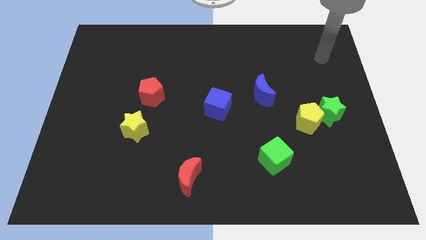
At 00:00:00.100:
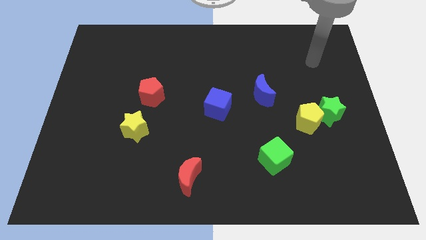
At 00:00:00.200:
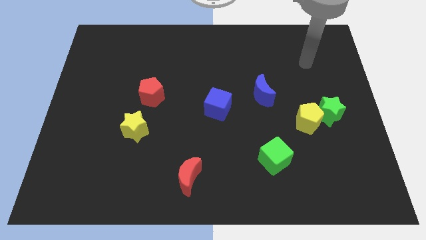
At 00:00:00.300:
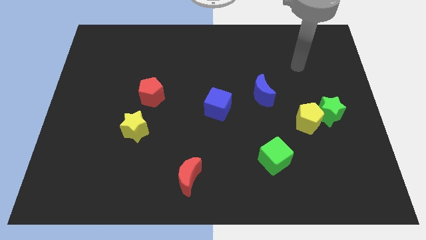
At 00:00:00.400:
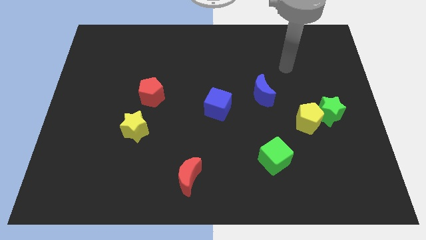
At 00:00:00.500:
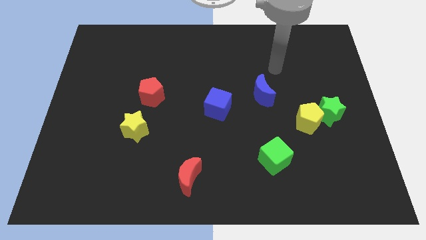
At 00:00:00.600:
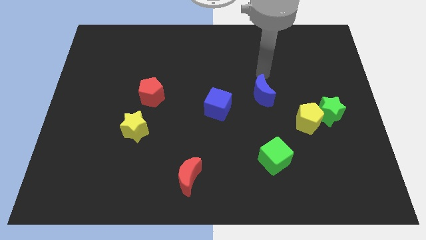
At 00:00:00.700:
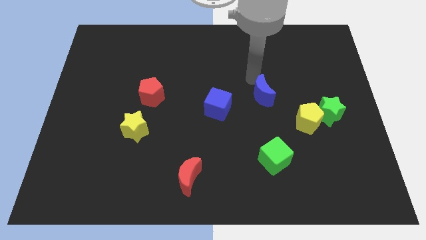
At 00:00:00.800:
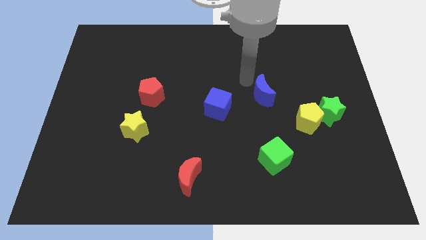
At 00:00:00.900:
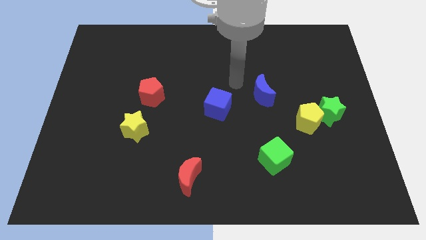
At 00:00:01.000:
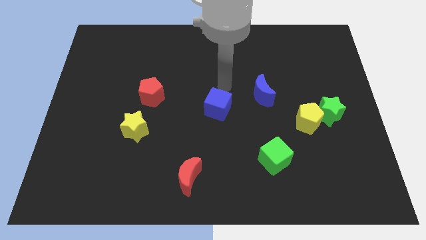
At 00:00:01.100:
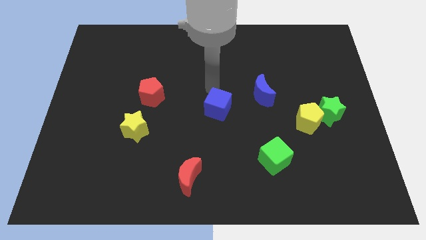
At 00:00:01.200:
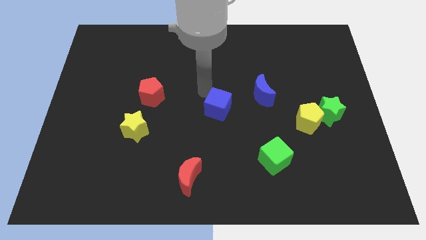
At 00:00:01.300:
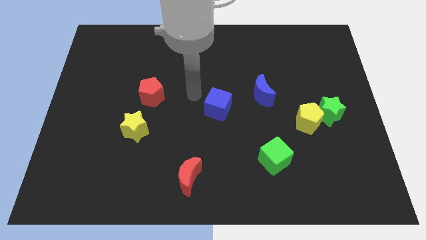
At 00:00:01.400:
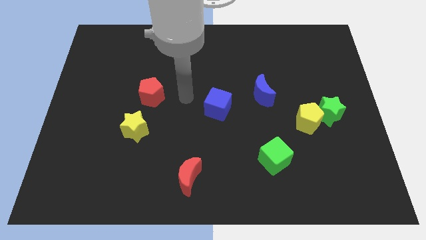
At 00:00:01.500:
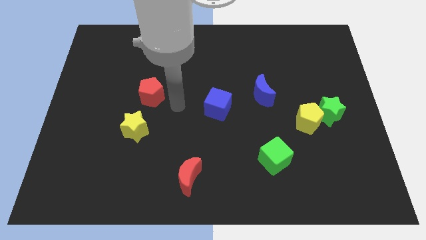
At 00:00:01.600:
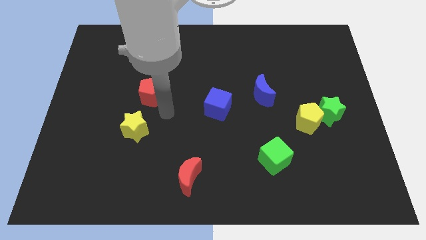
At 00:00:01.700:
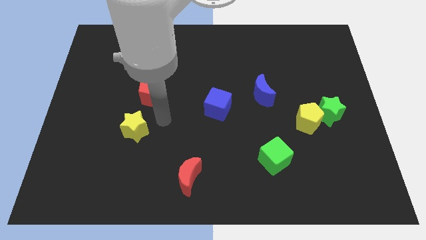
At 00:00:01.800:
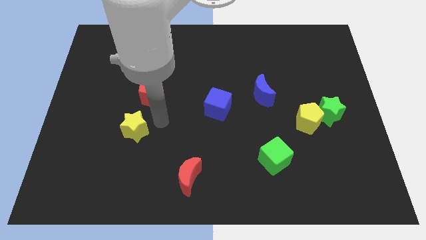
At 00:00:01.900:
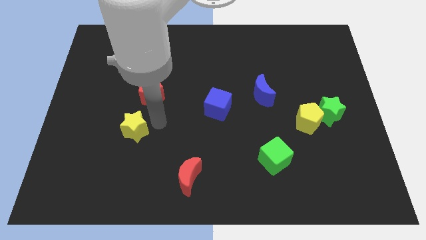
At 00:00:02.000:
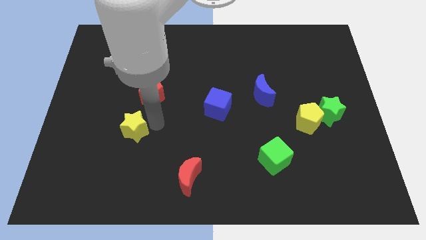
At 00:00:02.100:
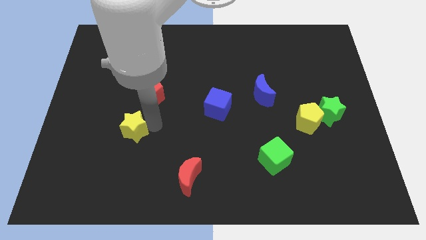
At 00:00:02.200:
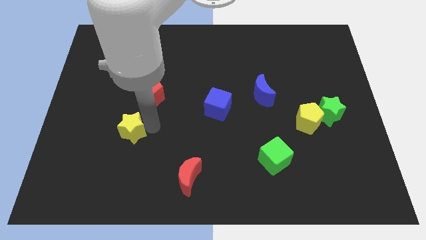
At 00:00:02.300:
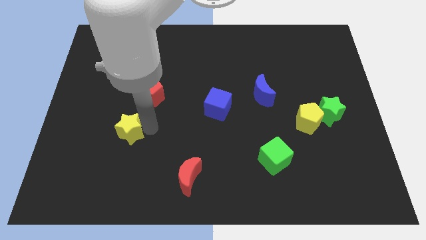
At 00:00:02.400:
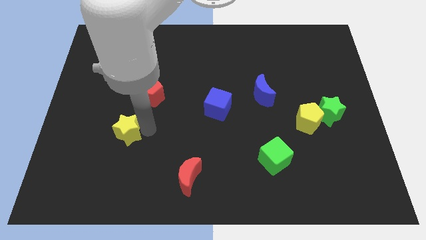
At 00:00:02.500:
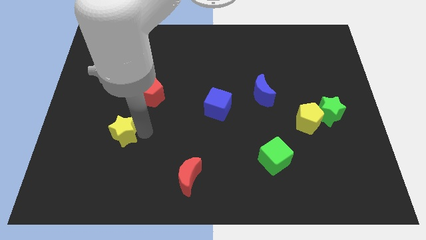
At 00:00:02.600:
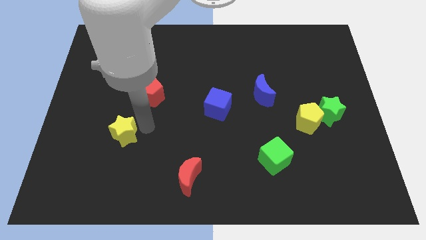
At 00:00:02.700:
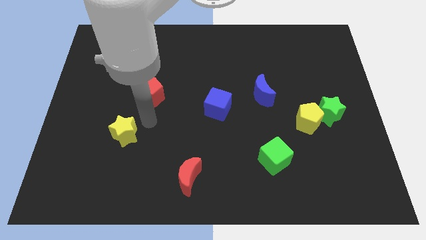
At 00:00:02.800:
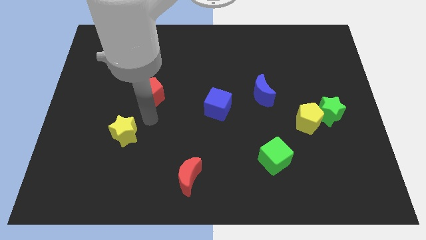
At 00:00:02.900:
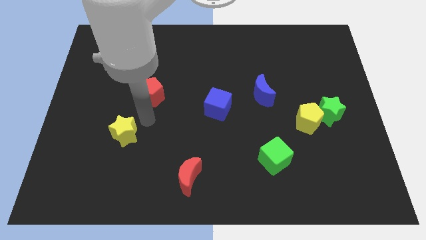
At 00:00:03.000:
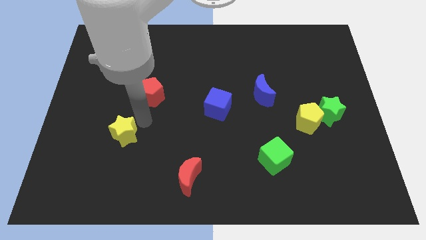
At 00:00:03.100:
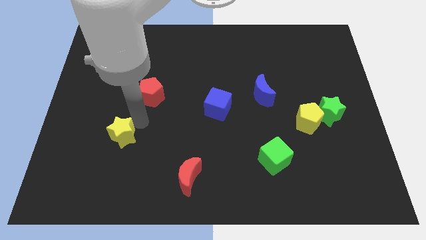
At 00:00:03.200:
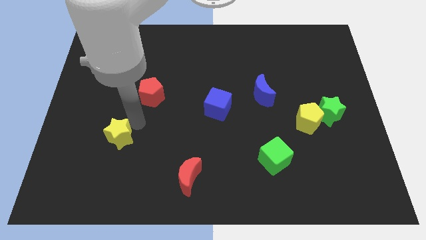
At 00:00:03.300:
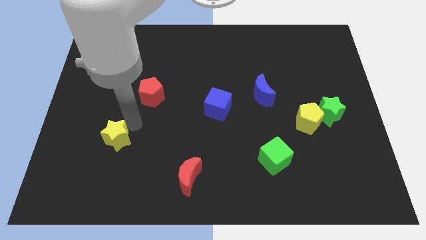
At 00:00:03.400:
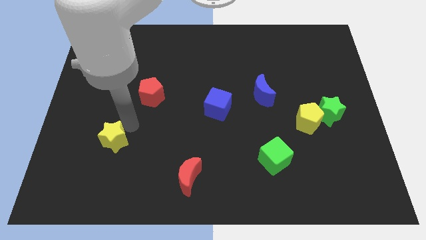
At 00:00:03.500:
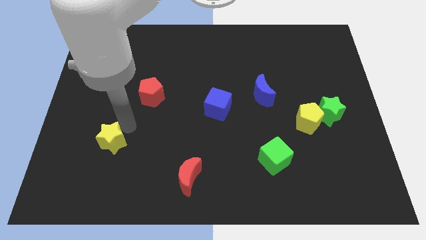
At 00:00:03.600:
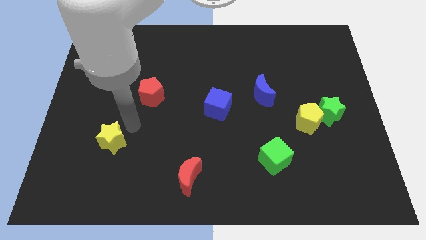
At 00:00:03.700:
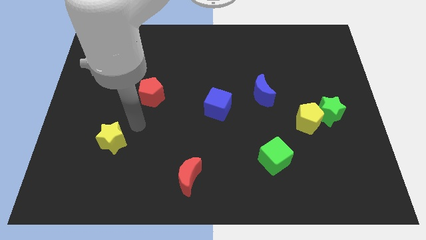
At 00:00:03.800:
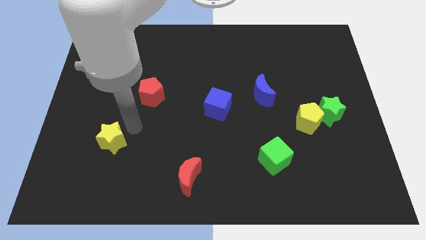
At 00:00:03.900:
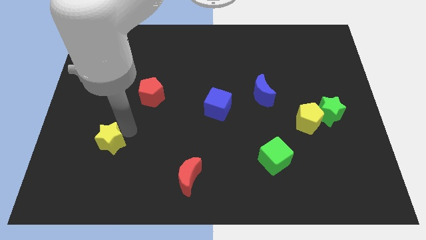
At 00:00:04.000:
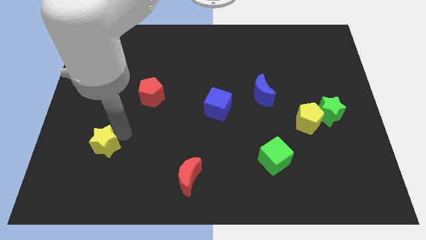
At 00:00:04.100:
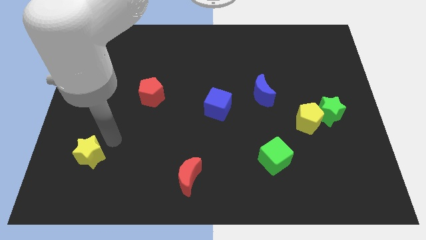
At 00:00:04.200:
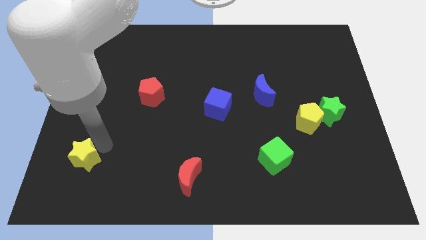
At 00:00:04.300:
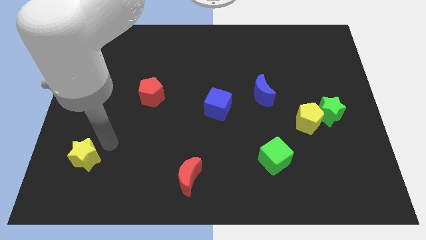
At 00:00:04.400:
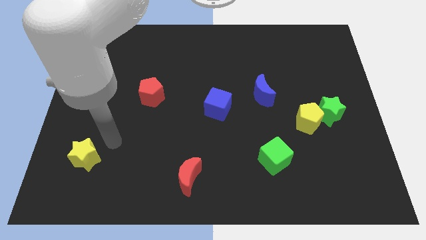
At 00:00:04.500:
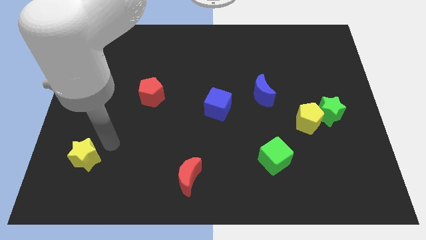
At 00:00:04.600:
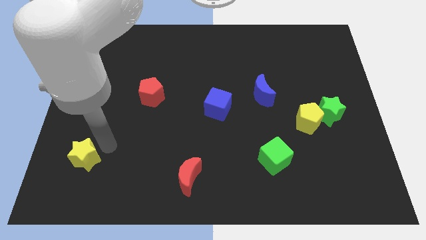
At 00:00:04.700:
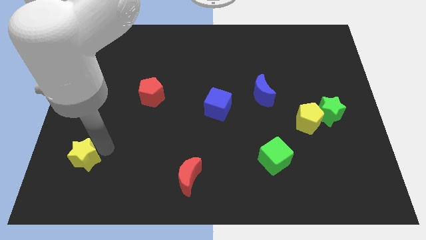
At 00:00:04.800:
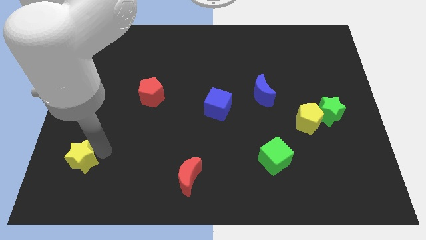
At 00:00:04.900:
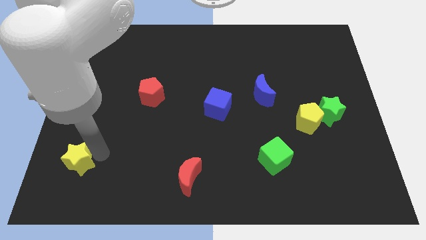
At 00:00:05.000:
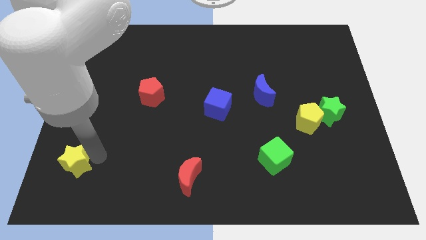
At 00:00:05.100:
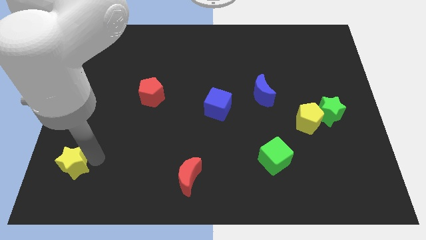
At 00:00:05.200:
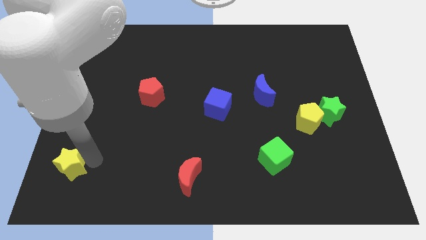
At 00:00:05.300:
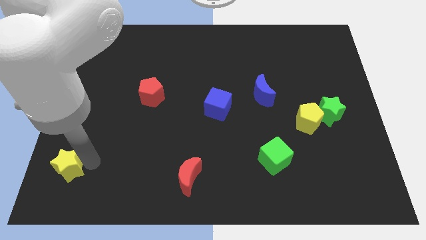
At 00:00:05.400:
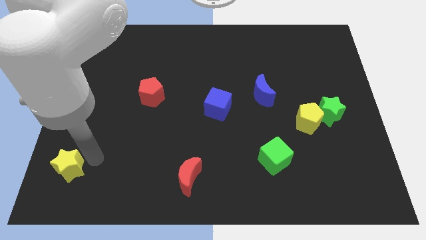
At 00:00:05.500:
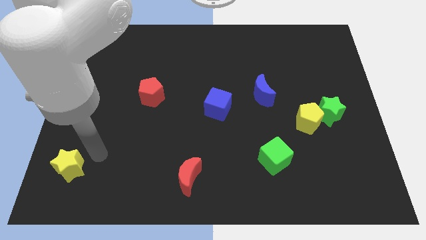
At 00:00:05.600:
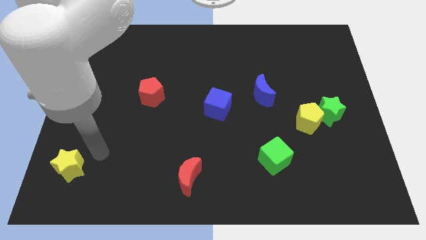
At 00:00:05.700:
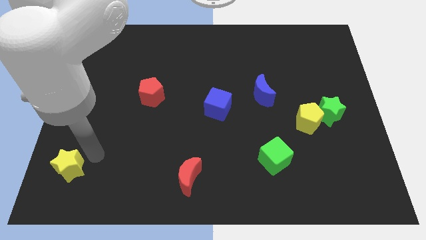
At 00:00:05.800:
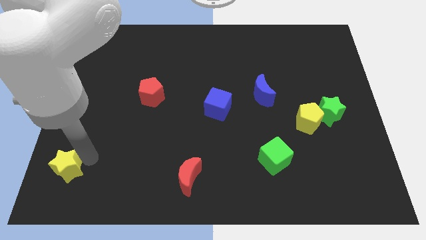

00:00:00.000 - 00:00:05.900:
put the yellow star to the bottom left corner

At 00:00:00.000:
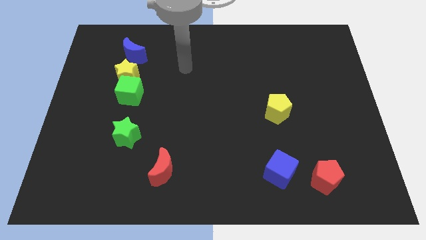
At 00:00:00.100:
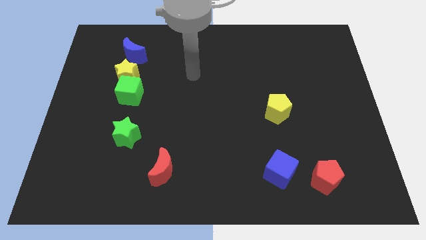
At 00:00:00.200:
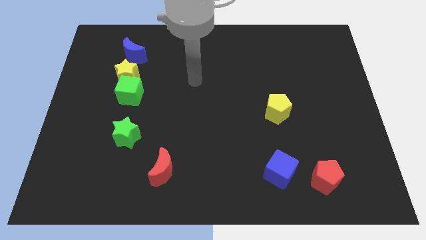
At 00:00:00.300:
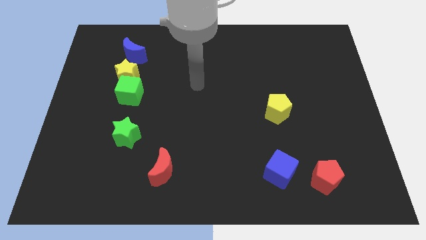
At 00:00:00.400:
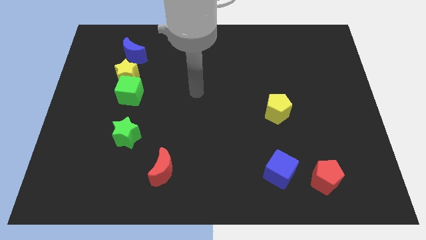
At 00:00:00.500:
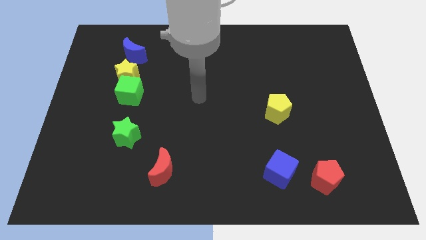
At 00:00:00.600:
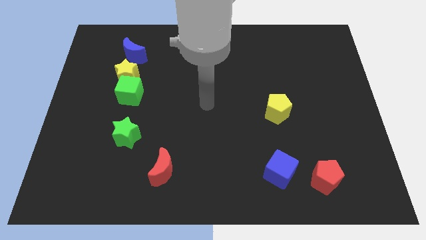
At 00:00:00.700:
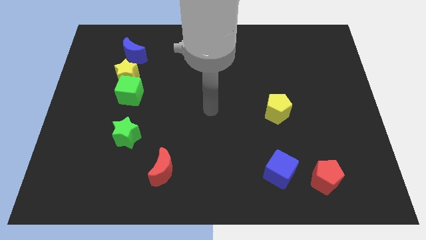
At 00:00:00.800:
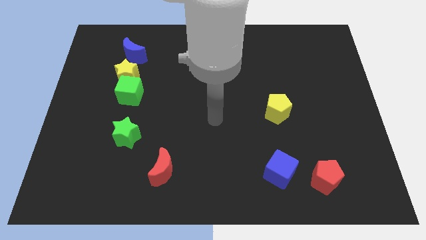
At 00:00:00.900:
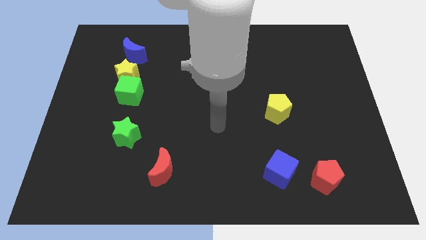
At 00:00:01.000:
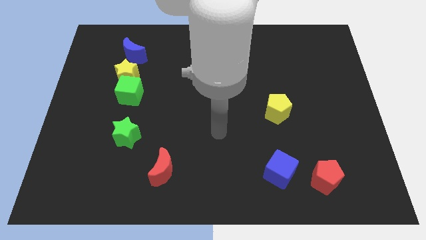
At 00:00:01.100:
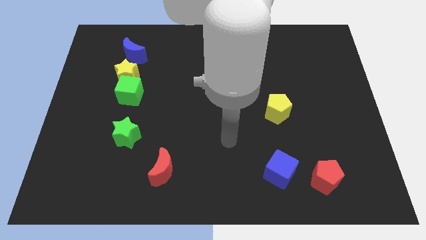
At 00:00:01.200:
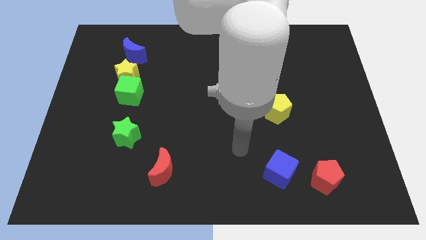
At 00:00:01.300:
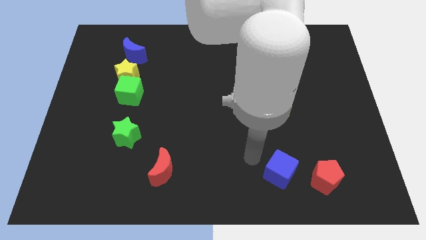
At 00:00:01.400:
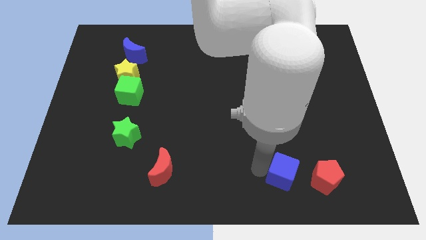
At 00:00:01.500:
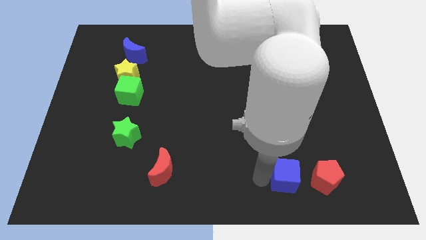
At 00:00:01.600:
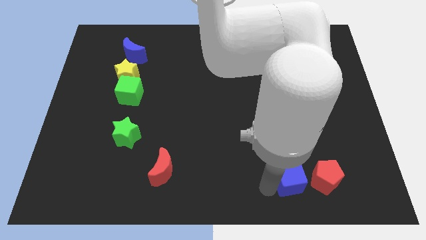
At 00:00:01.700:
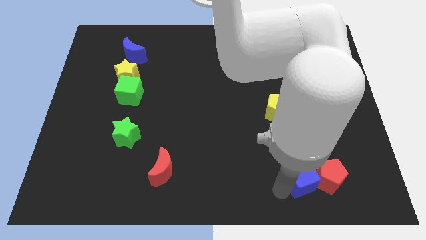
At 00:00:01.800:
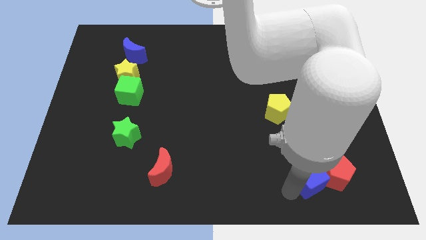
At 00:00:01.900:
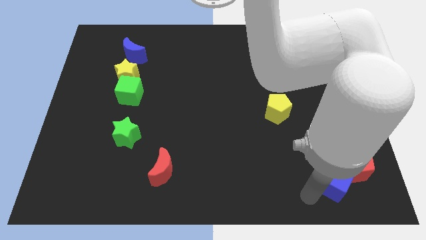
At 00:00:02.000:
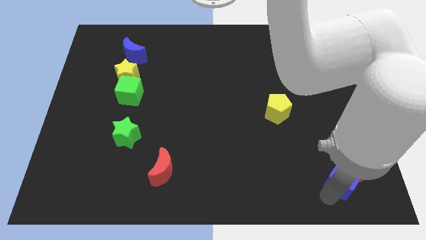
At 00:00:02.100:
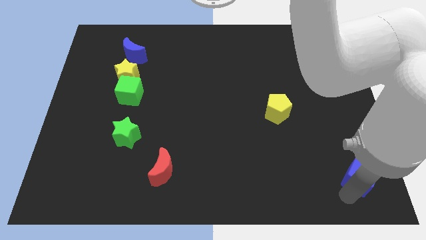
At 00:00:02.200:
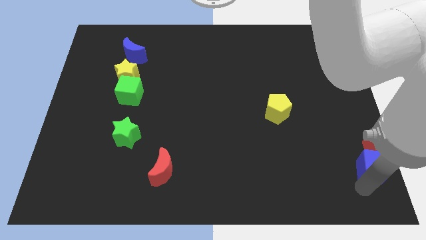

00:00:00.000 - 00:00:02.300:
push the red pentagon to the center right
